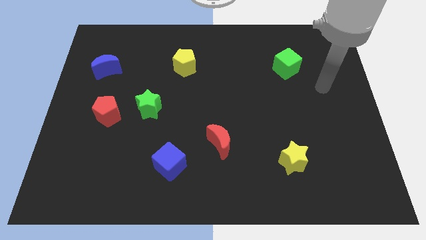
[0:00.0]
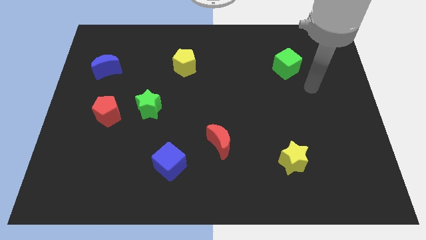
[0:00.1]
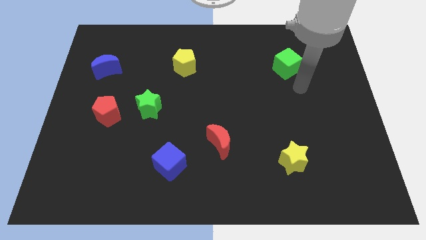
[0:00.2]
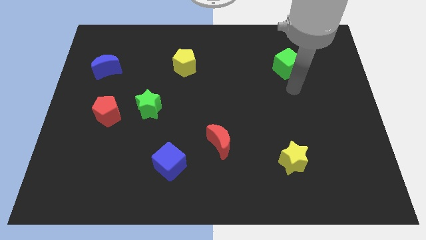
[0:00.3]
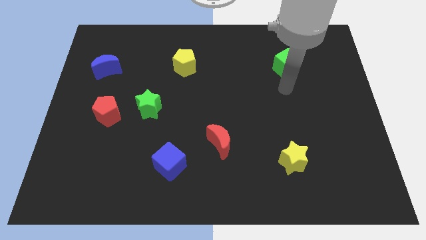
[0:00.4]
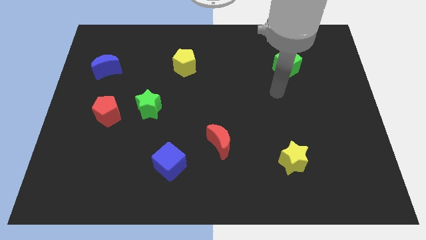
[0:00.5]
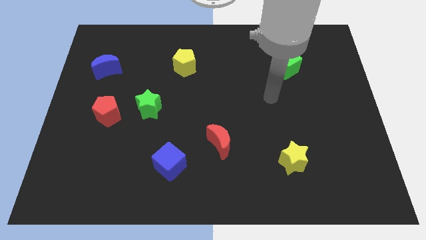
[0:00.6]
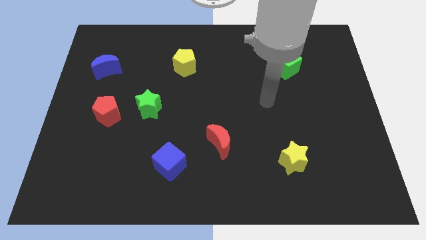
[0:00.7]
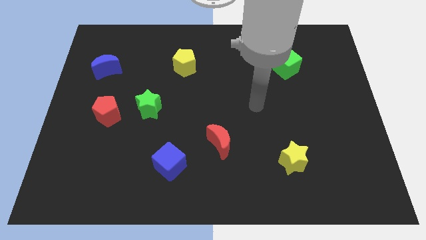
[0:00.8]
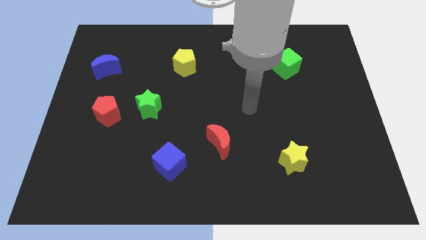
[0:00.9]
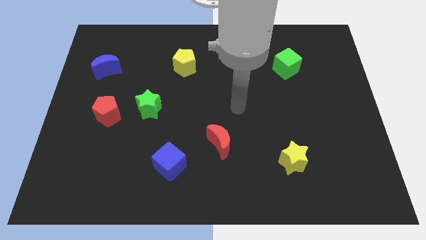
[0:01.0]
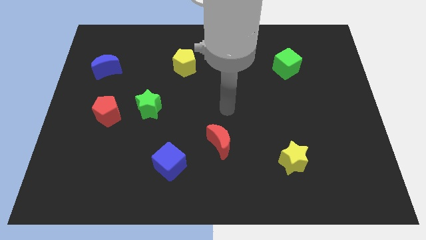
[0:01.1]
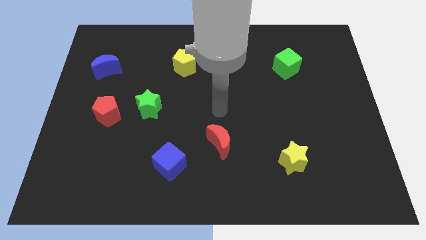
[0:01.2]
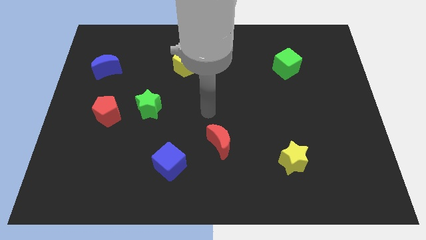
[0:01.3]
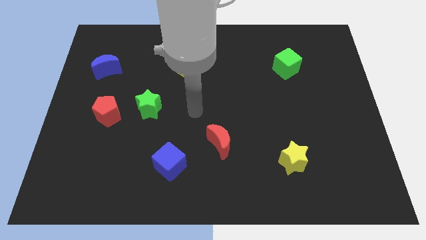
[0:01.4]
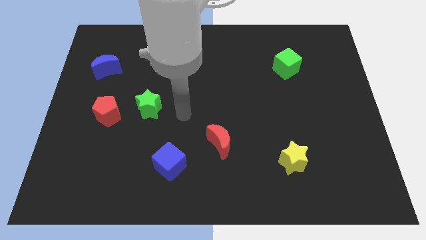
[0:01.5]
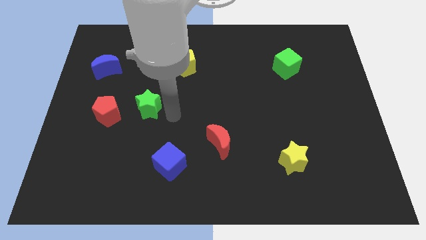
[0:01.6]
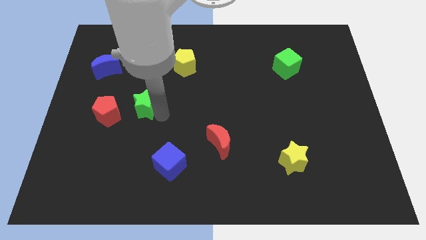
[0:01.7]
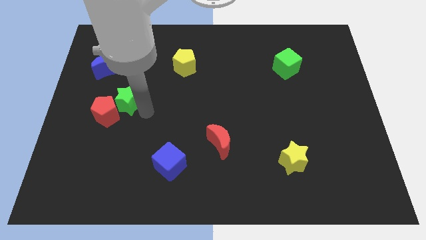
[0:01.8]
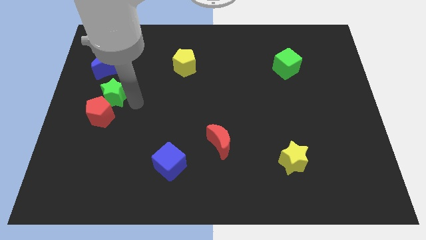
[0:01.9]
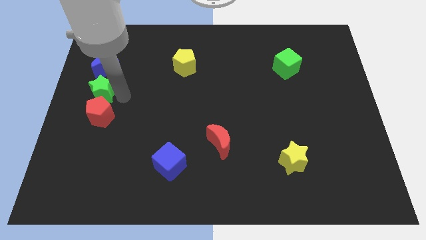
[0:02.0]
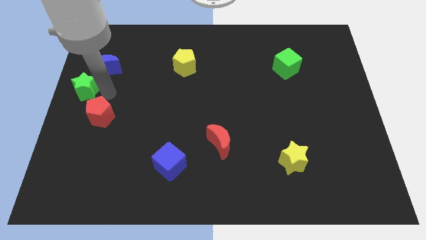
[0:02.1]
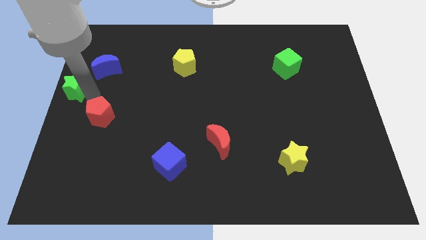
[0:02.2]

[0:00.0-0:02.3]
separate the red pentagon from the green star

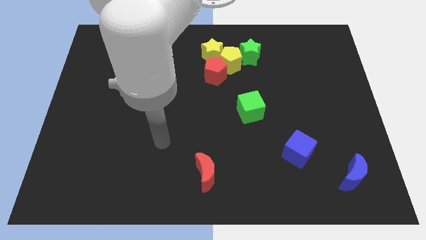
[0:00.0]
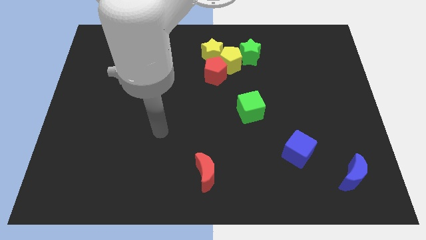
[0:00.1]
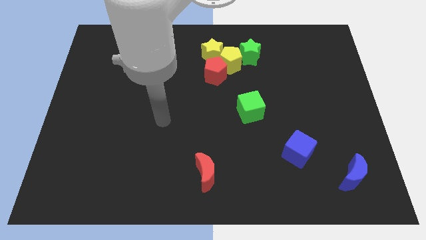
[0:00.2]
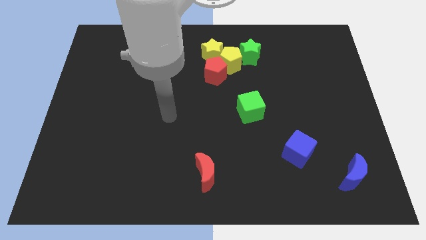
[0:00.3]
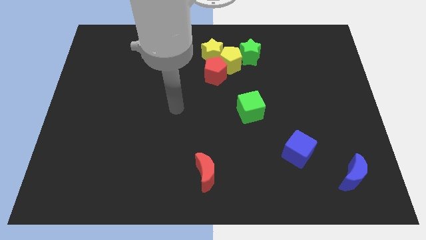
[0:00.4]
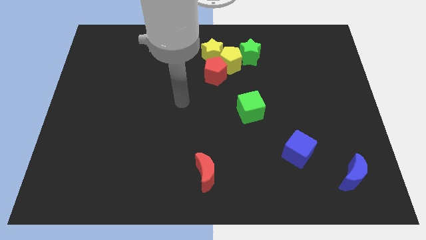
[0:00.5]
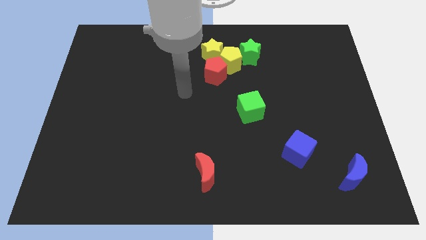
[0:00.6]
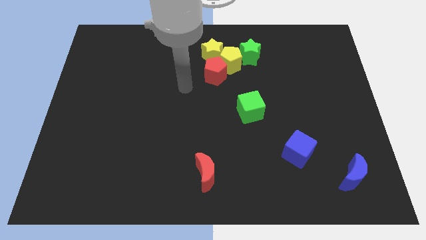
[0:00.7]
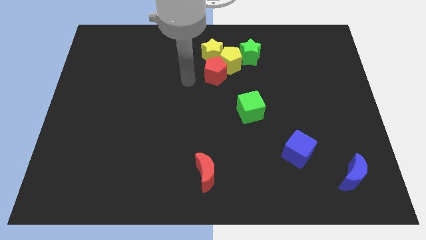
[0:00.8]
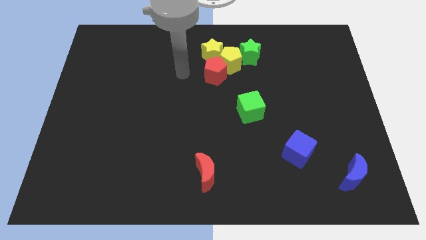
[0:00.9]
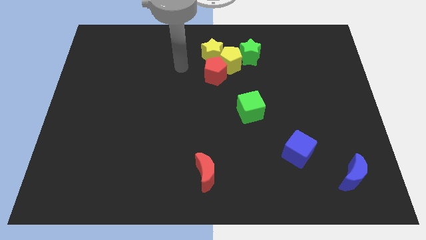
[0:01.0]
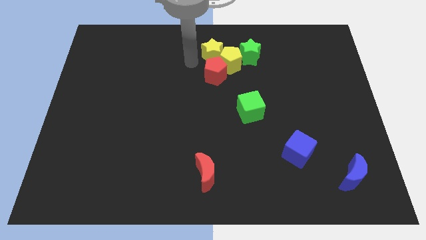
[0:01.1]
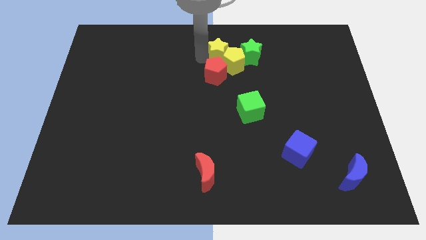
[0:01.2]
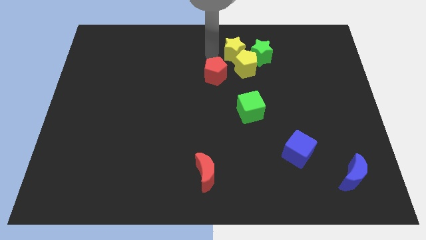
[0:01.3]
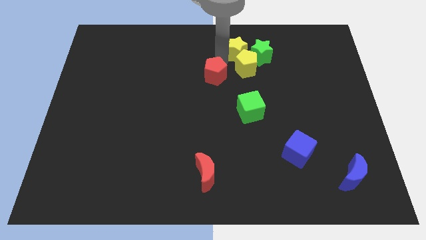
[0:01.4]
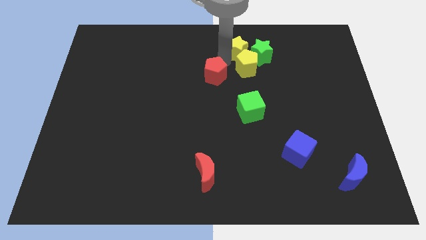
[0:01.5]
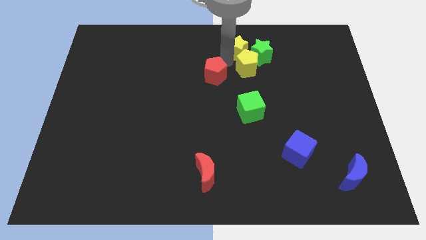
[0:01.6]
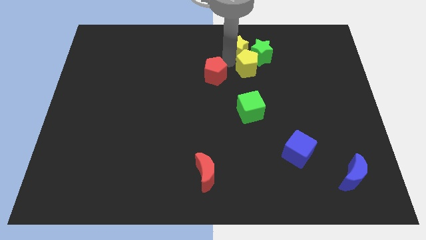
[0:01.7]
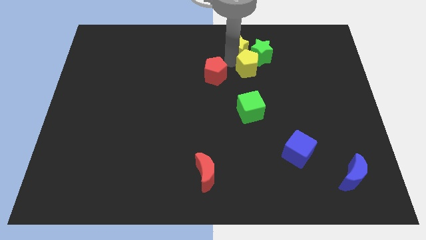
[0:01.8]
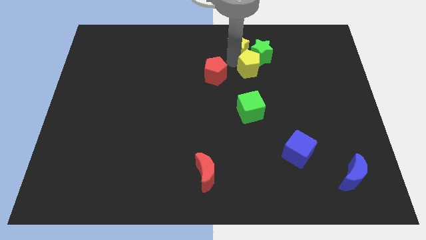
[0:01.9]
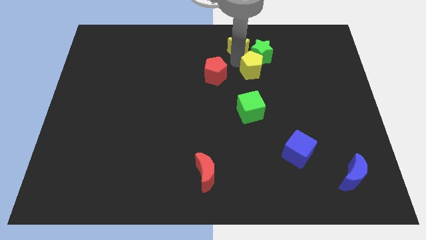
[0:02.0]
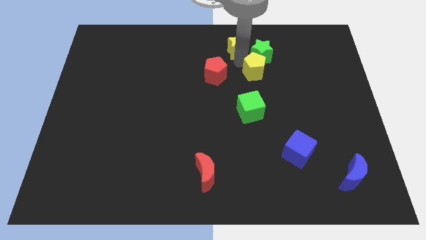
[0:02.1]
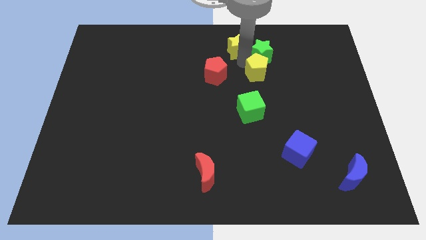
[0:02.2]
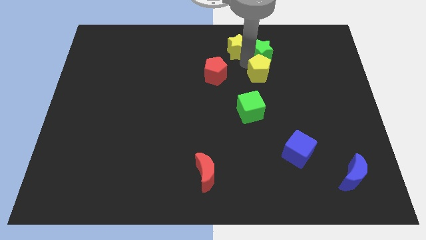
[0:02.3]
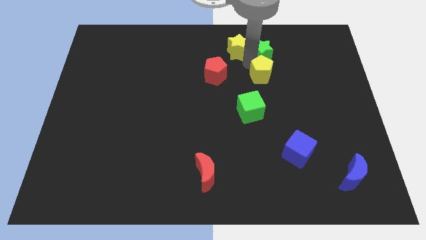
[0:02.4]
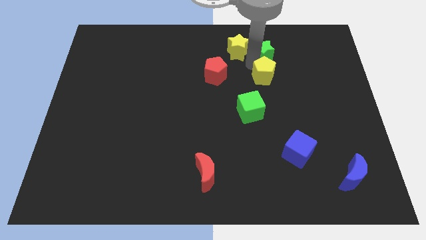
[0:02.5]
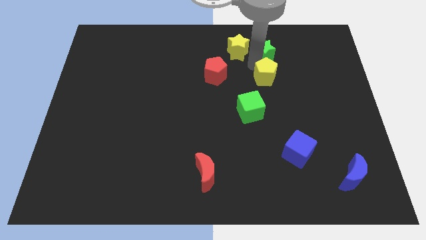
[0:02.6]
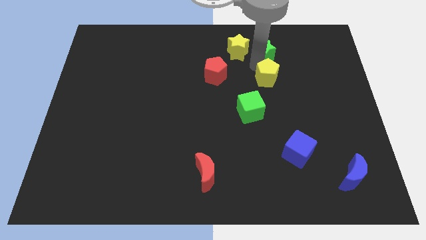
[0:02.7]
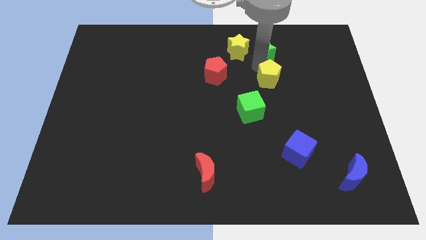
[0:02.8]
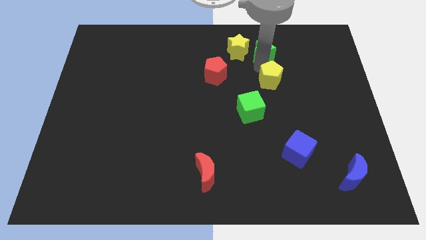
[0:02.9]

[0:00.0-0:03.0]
separate the yellow pentagon from the clump

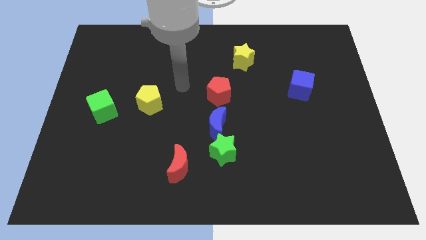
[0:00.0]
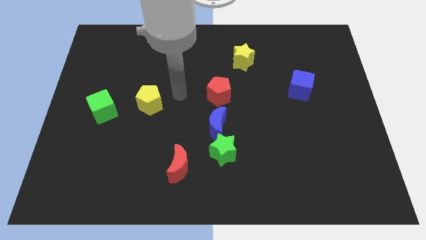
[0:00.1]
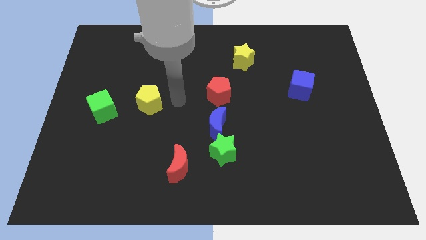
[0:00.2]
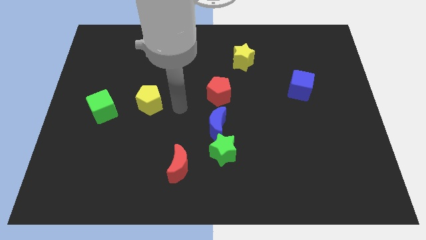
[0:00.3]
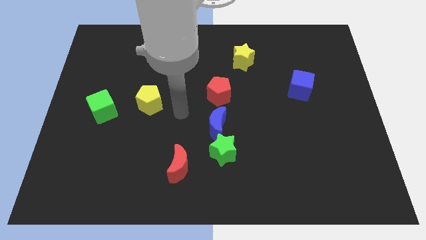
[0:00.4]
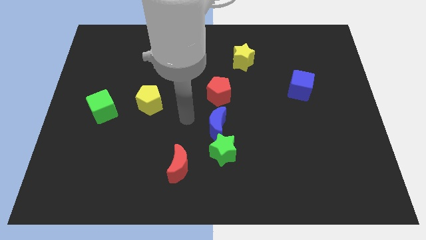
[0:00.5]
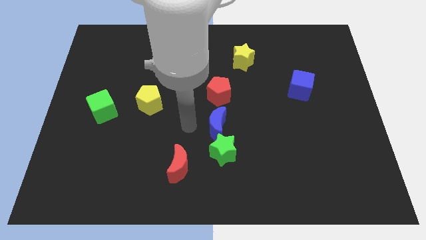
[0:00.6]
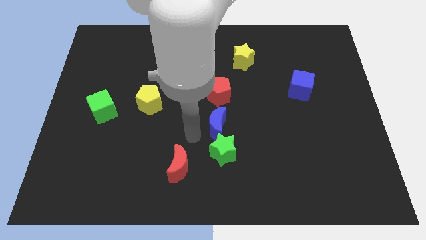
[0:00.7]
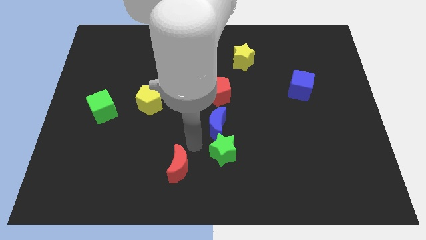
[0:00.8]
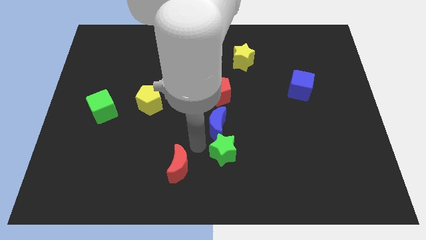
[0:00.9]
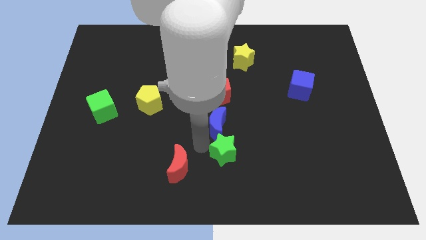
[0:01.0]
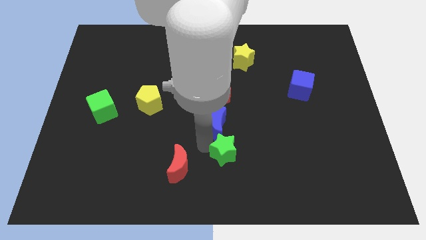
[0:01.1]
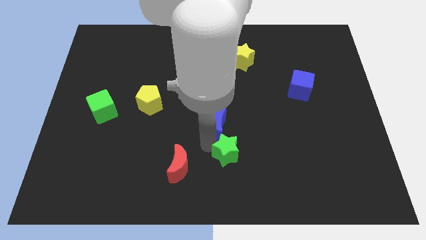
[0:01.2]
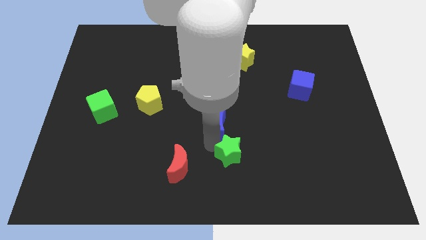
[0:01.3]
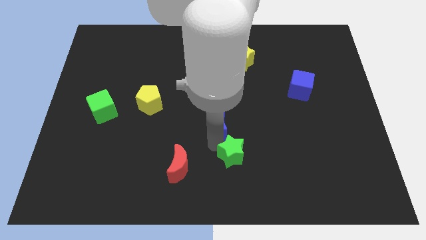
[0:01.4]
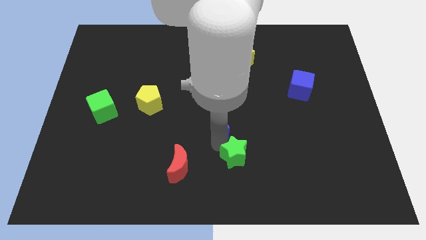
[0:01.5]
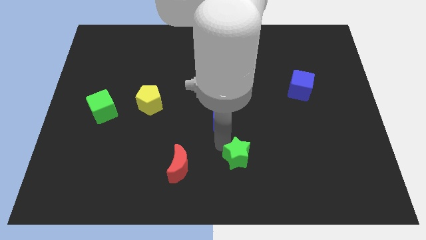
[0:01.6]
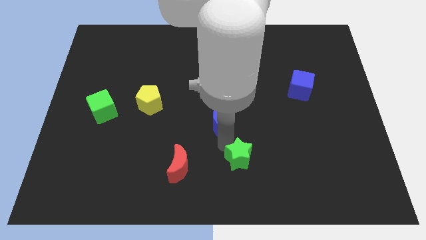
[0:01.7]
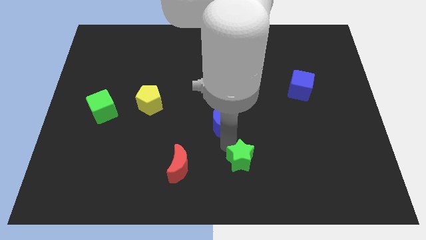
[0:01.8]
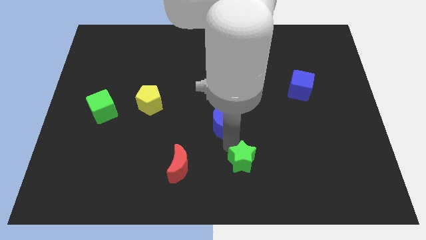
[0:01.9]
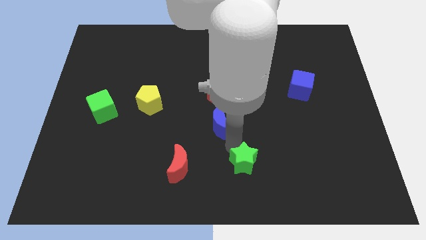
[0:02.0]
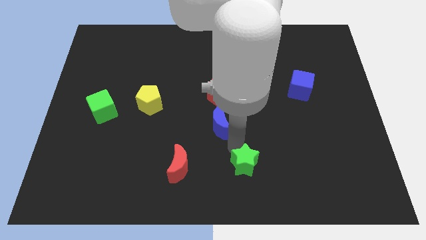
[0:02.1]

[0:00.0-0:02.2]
separate the green star from the blue moon and red moon

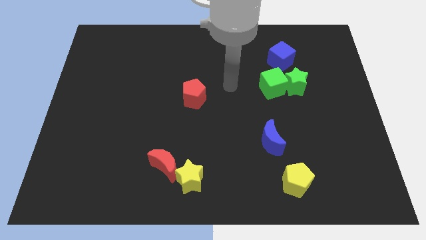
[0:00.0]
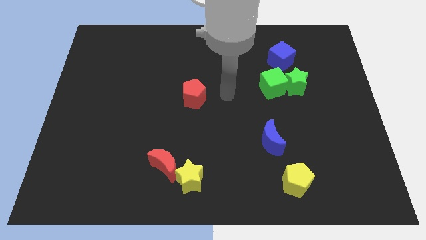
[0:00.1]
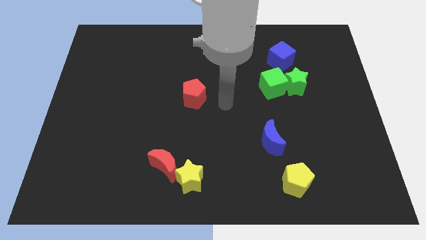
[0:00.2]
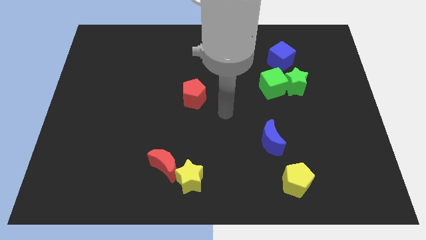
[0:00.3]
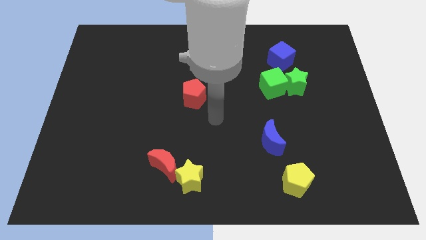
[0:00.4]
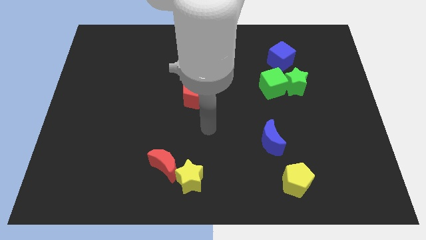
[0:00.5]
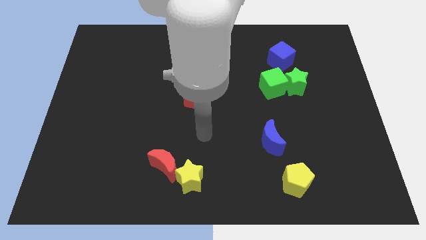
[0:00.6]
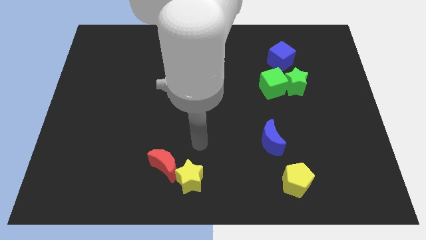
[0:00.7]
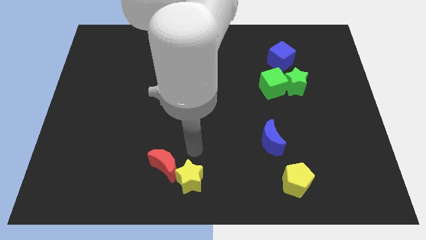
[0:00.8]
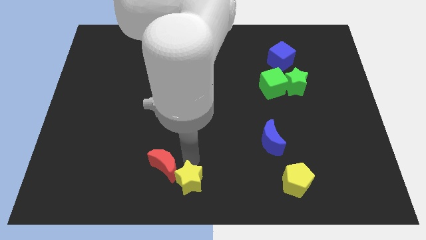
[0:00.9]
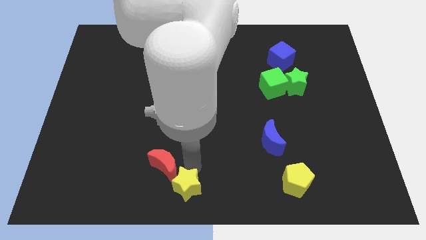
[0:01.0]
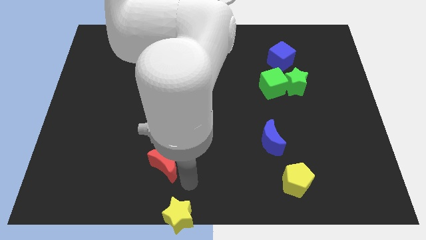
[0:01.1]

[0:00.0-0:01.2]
pull the red moon apart from the yellow star

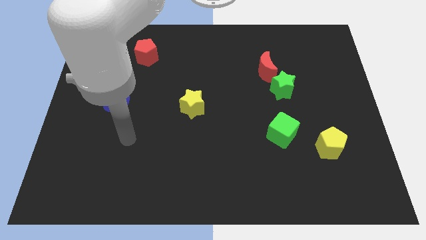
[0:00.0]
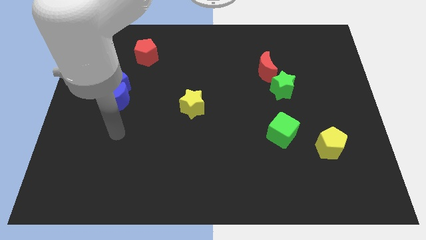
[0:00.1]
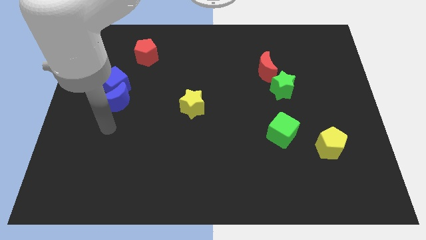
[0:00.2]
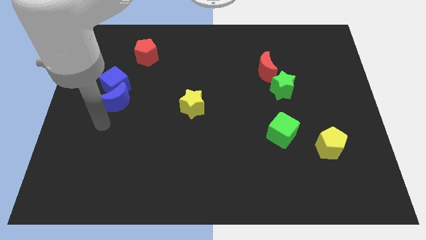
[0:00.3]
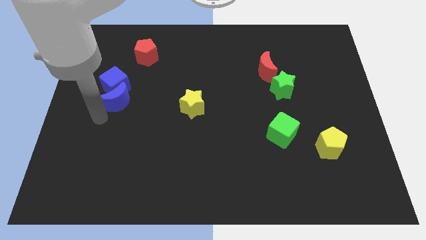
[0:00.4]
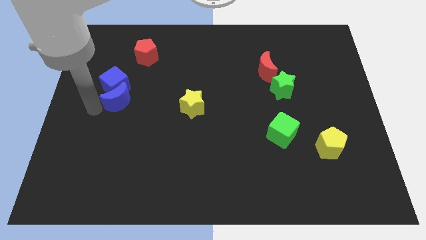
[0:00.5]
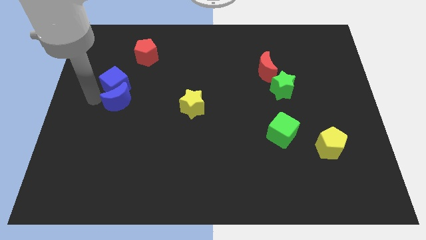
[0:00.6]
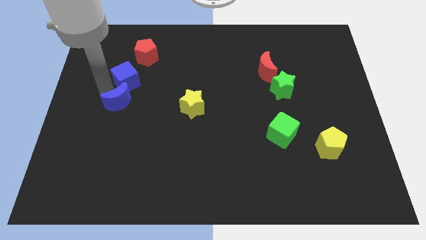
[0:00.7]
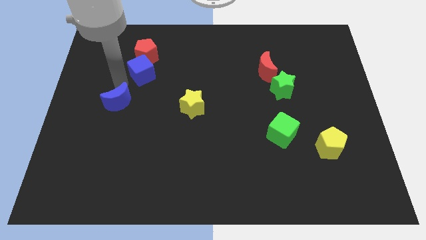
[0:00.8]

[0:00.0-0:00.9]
separate the blue moon from the blue cube
